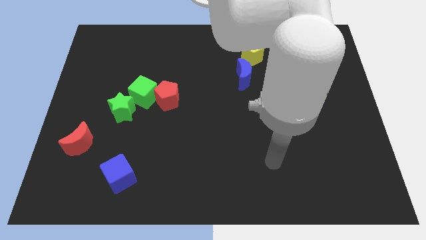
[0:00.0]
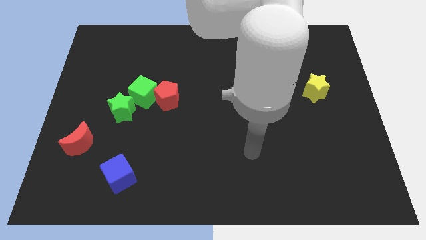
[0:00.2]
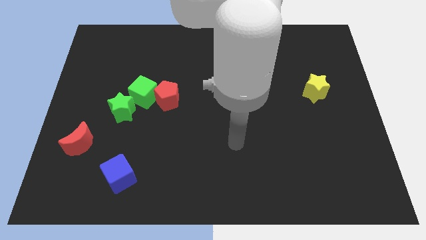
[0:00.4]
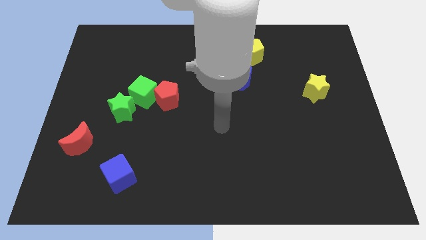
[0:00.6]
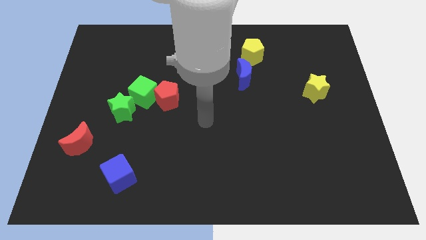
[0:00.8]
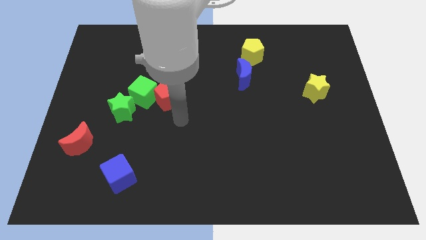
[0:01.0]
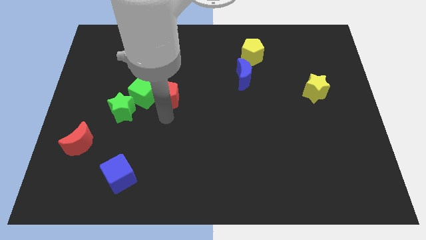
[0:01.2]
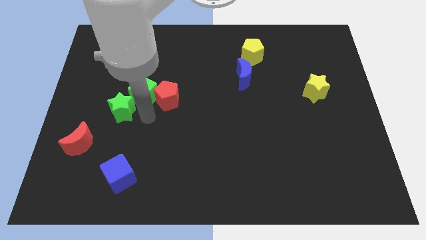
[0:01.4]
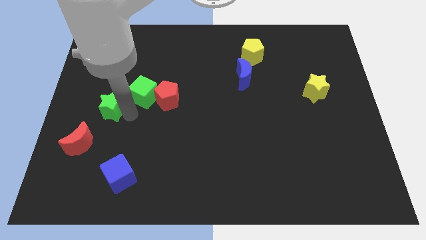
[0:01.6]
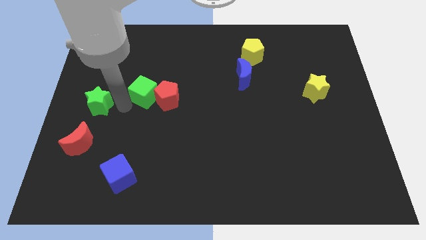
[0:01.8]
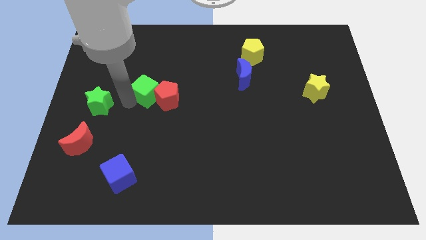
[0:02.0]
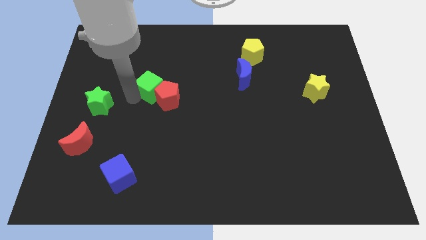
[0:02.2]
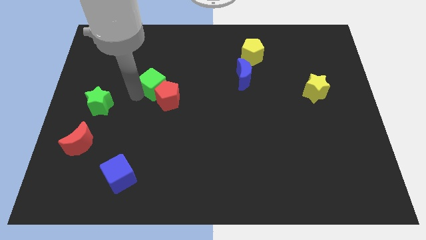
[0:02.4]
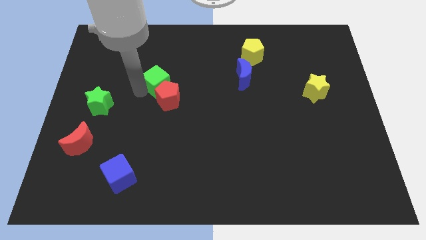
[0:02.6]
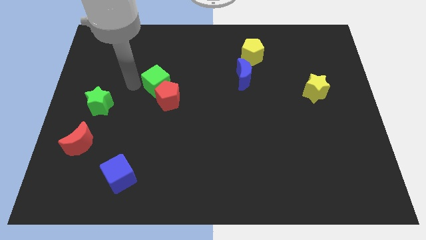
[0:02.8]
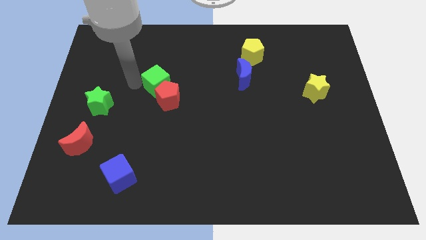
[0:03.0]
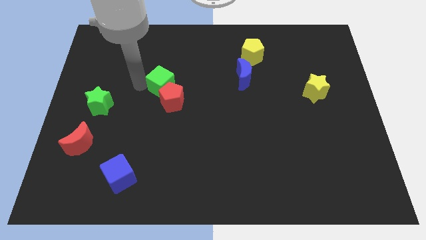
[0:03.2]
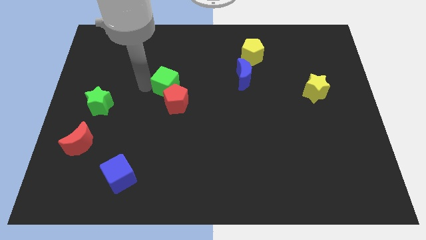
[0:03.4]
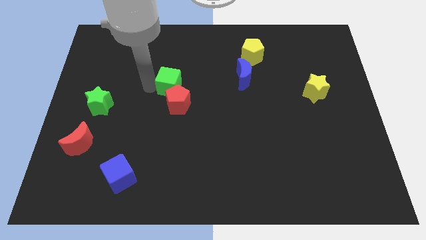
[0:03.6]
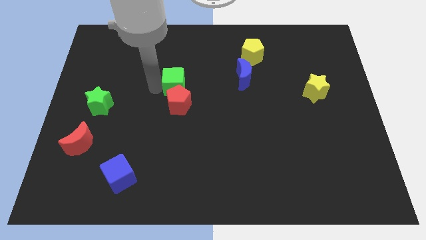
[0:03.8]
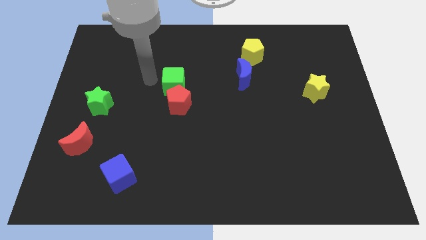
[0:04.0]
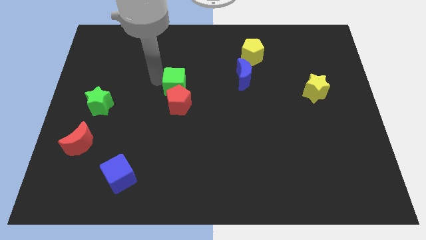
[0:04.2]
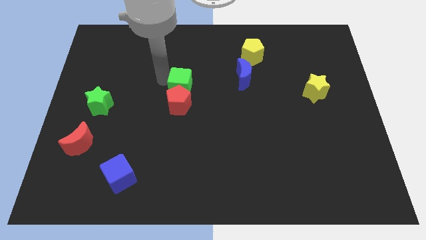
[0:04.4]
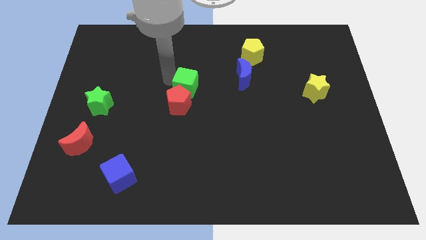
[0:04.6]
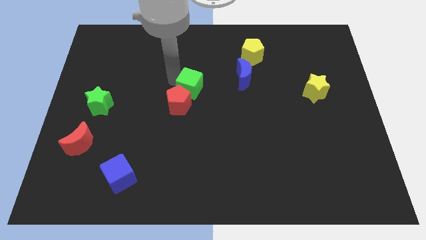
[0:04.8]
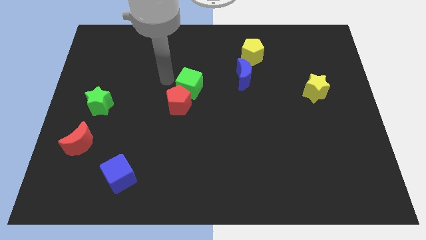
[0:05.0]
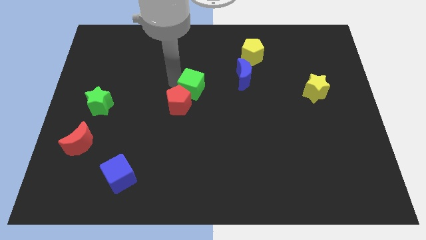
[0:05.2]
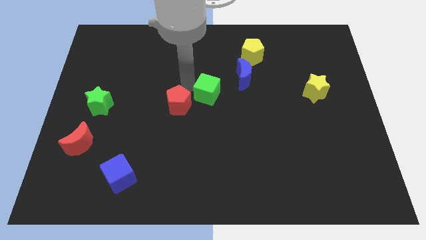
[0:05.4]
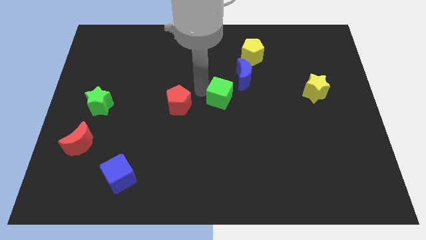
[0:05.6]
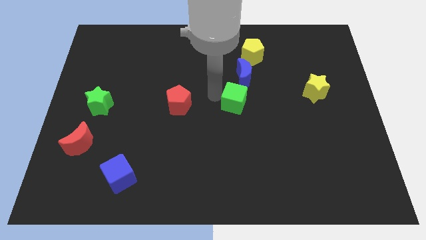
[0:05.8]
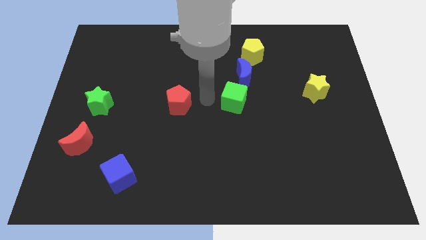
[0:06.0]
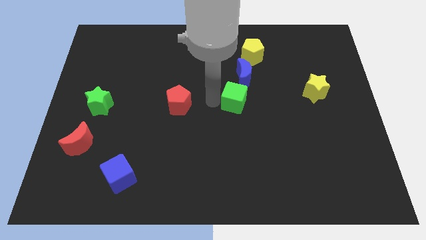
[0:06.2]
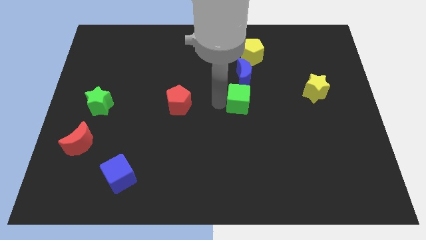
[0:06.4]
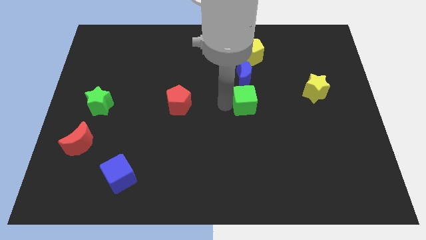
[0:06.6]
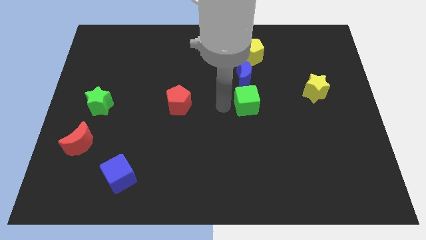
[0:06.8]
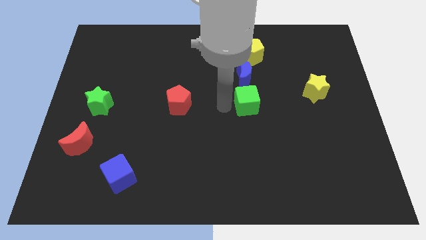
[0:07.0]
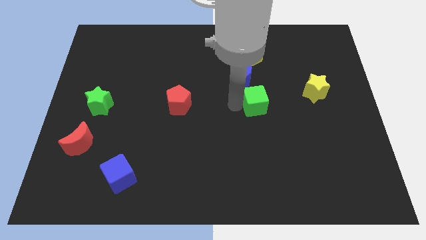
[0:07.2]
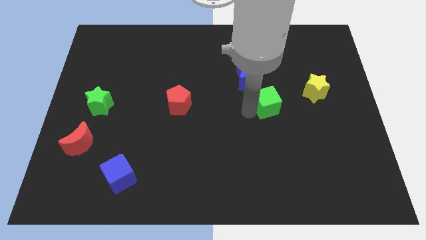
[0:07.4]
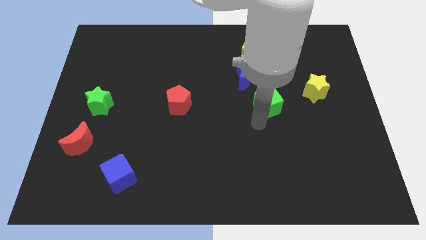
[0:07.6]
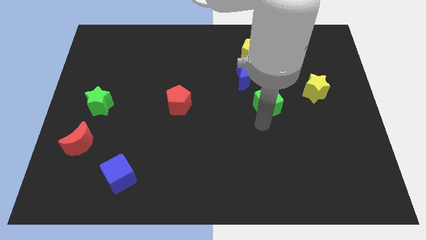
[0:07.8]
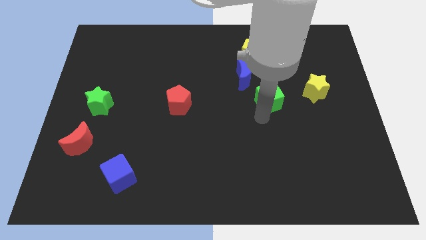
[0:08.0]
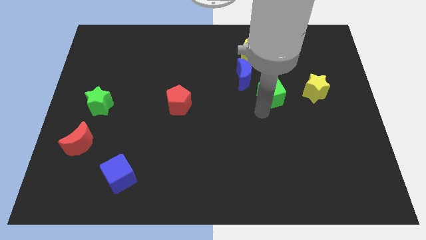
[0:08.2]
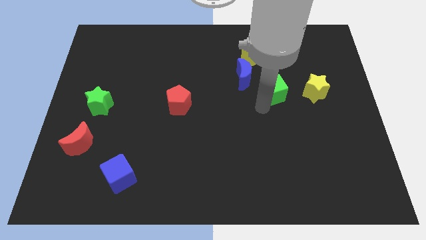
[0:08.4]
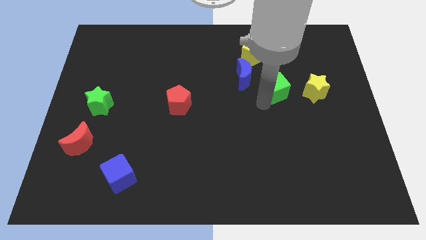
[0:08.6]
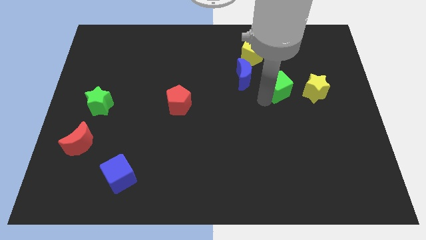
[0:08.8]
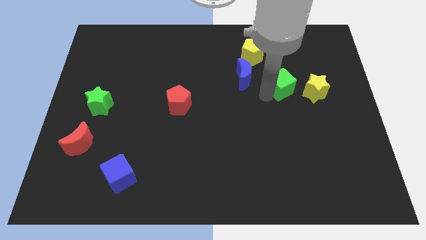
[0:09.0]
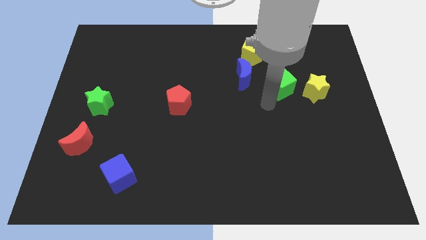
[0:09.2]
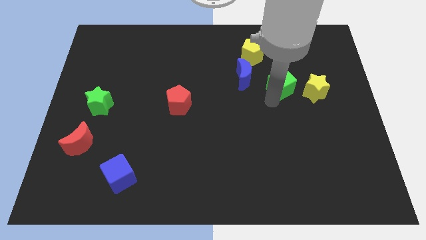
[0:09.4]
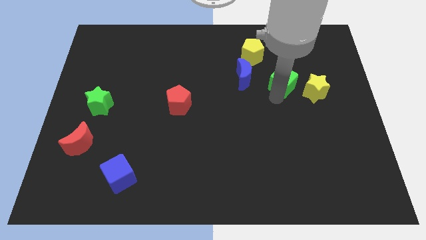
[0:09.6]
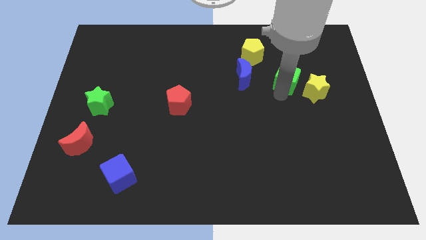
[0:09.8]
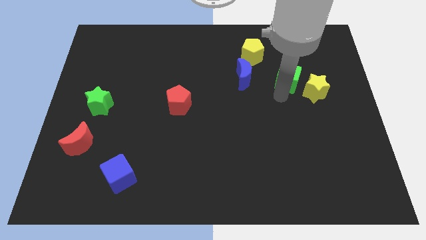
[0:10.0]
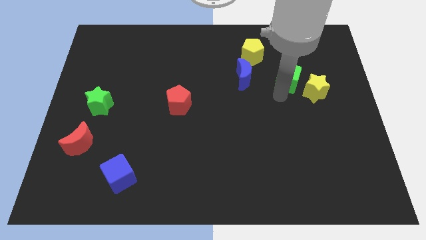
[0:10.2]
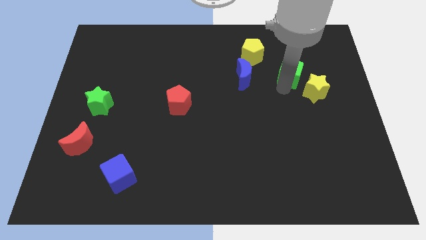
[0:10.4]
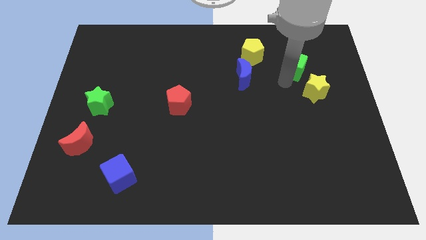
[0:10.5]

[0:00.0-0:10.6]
move the green cube above the yellow star

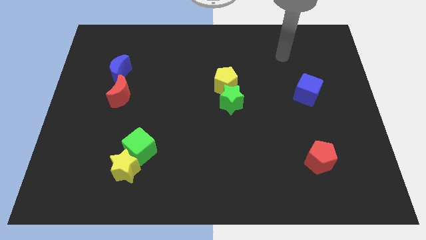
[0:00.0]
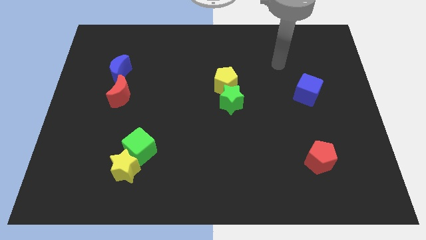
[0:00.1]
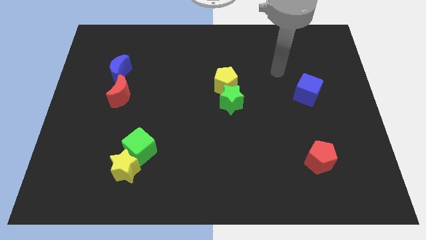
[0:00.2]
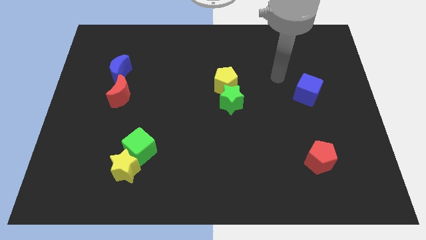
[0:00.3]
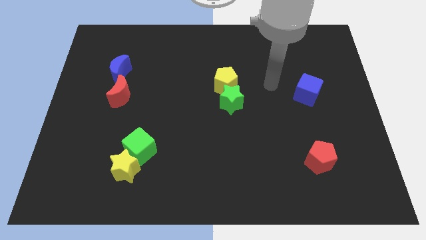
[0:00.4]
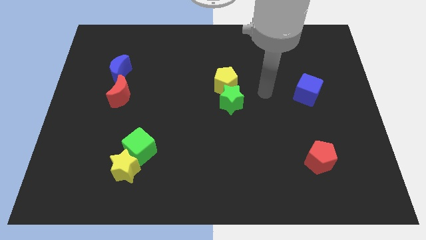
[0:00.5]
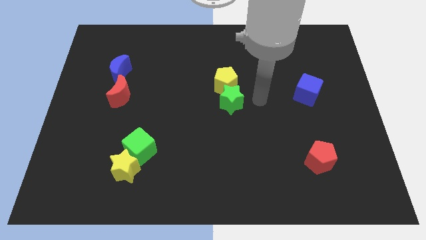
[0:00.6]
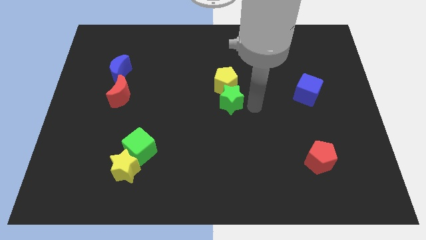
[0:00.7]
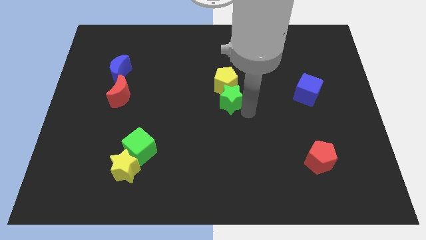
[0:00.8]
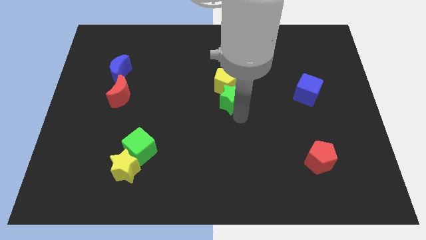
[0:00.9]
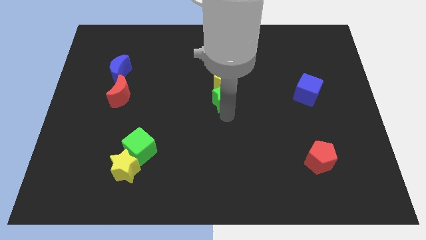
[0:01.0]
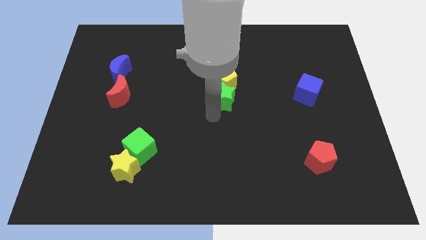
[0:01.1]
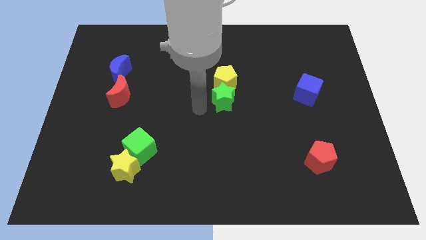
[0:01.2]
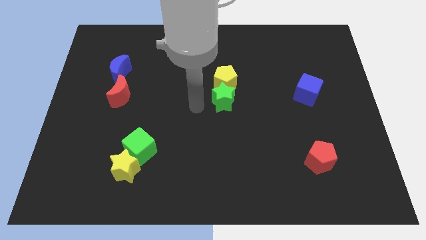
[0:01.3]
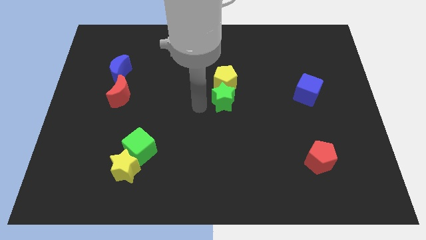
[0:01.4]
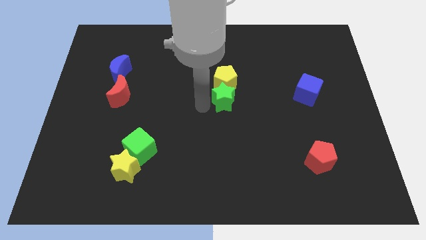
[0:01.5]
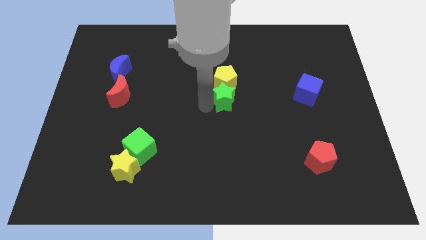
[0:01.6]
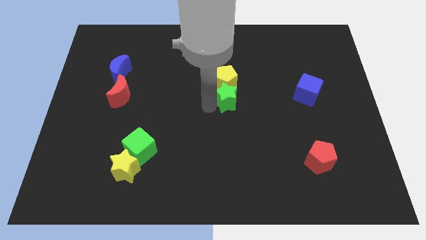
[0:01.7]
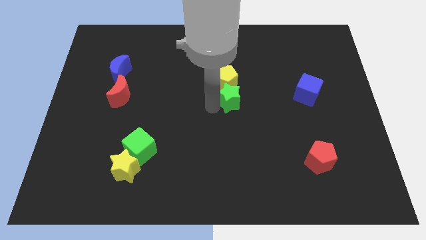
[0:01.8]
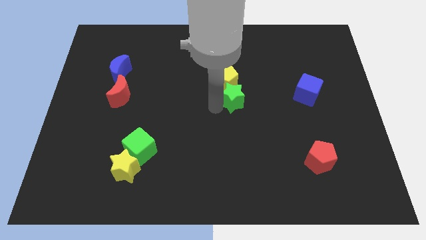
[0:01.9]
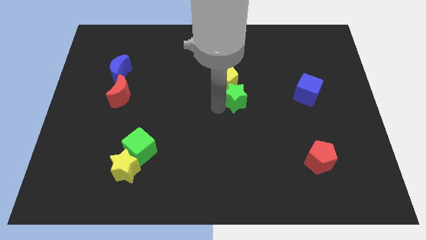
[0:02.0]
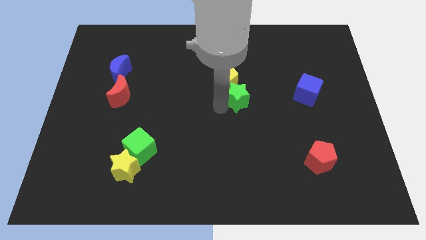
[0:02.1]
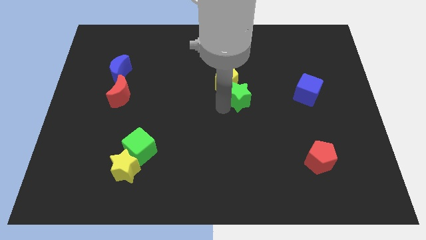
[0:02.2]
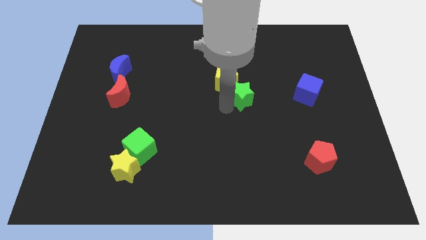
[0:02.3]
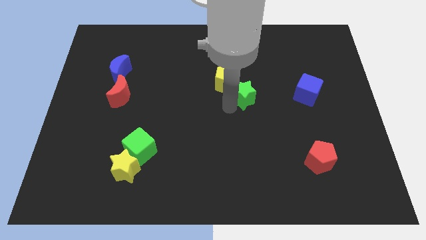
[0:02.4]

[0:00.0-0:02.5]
slide the green star left of the blue cube
